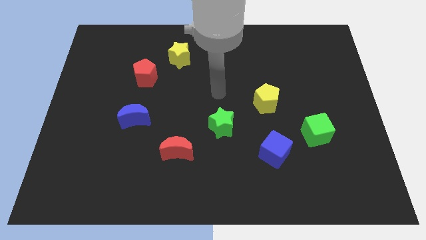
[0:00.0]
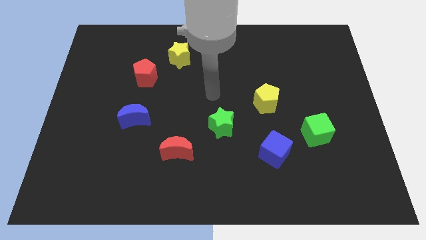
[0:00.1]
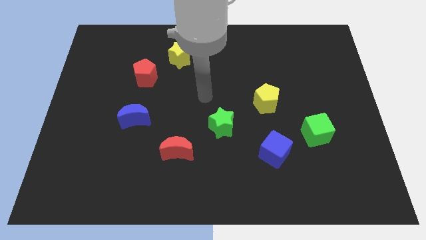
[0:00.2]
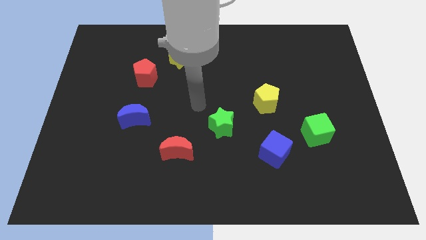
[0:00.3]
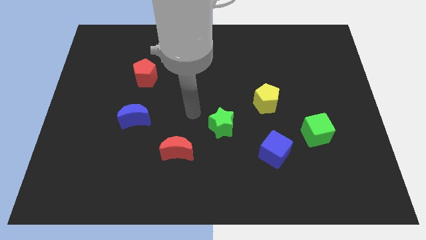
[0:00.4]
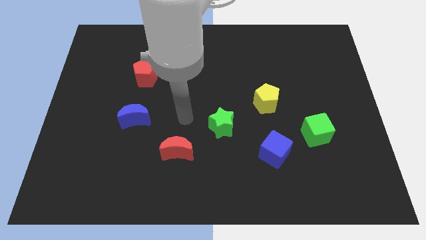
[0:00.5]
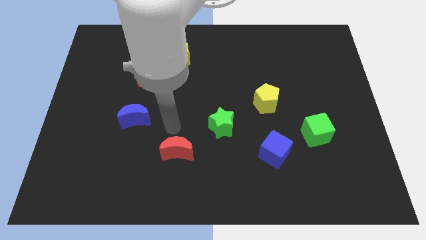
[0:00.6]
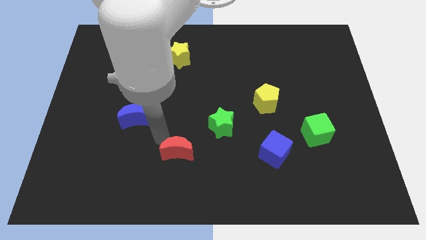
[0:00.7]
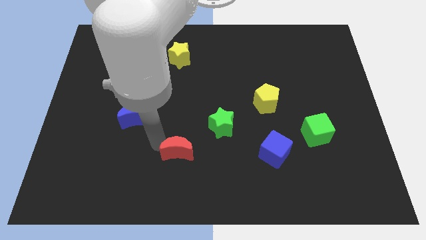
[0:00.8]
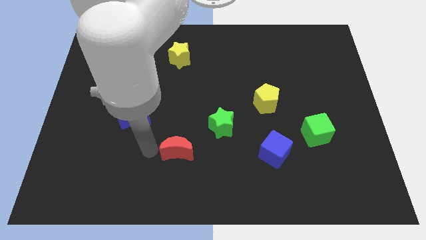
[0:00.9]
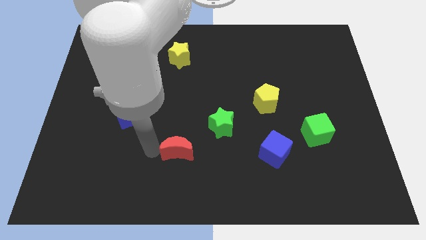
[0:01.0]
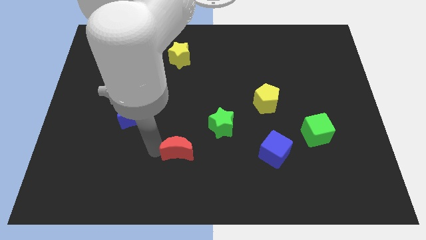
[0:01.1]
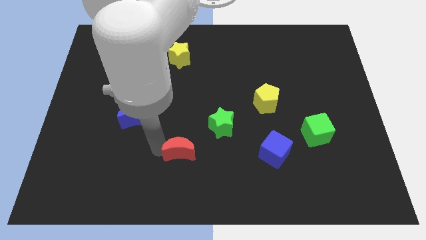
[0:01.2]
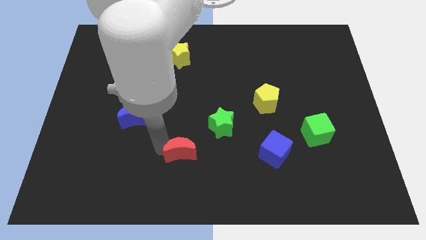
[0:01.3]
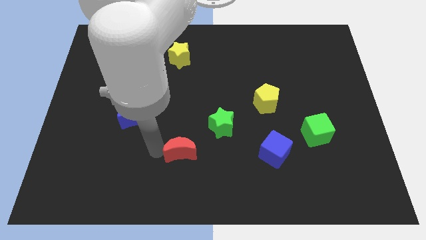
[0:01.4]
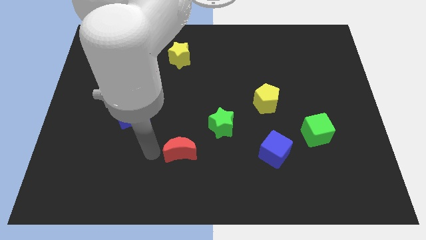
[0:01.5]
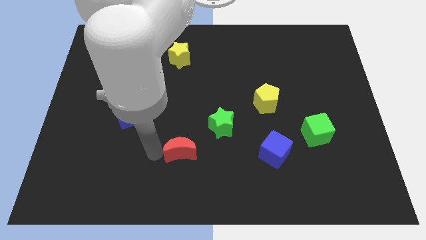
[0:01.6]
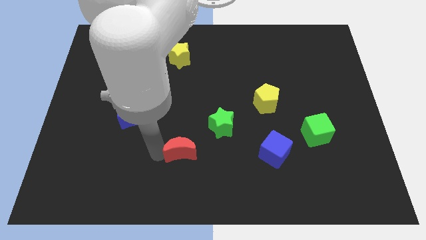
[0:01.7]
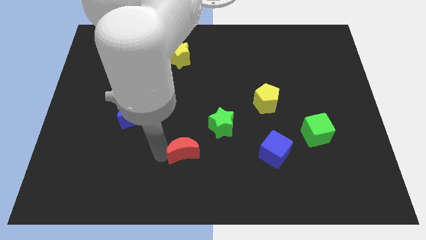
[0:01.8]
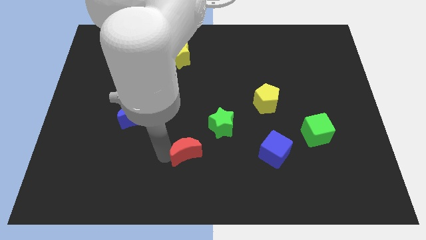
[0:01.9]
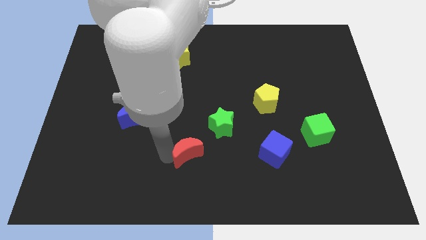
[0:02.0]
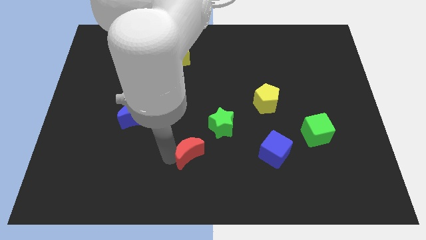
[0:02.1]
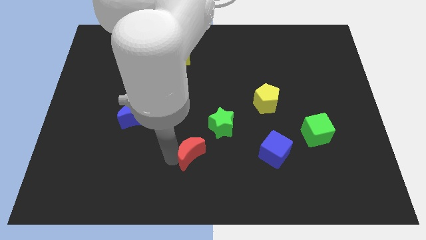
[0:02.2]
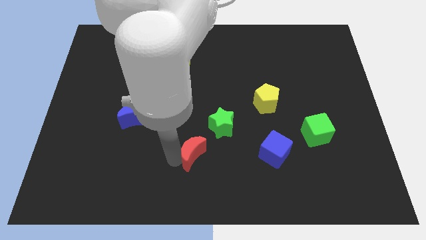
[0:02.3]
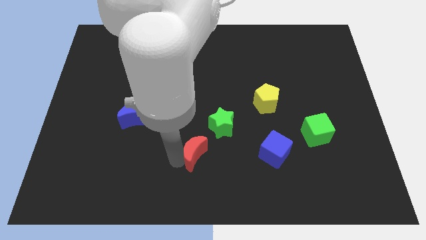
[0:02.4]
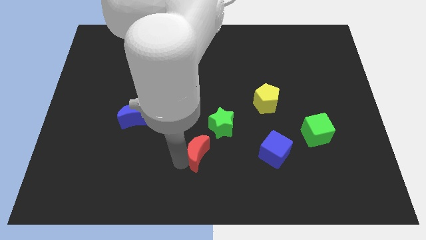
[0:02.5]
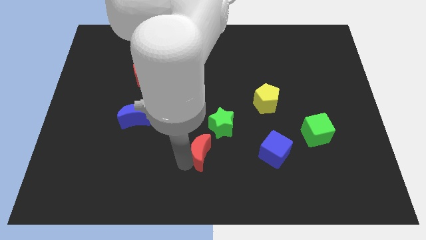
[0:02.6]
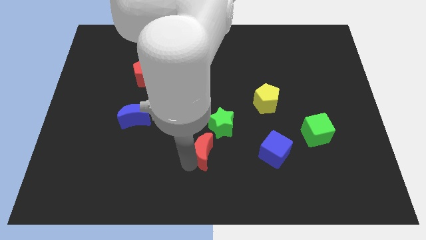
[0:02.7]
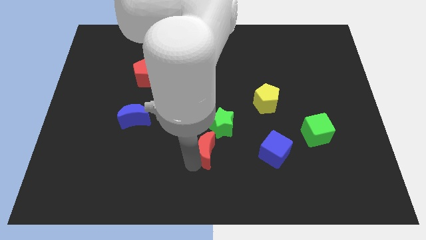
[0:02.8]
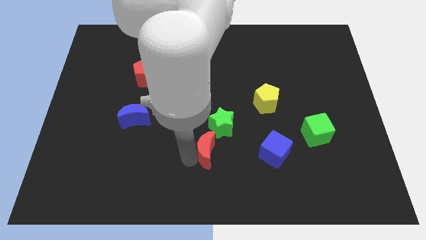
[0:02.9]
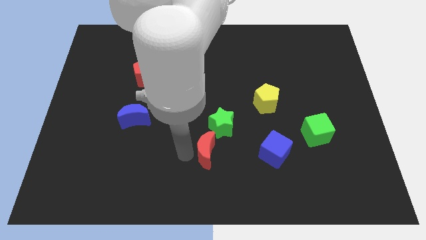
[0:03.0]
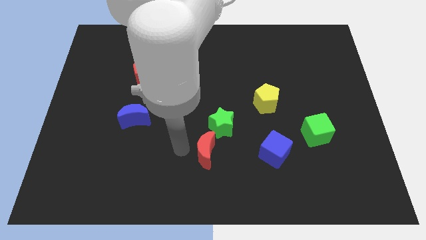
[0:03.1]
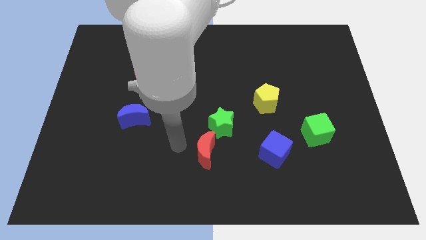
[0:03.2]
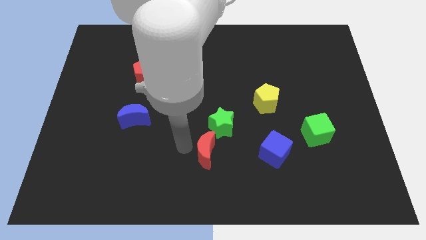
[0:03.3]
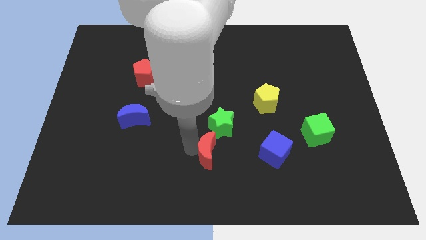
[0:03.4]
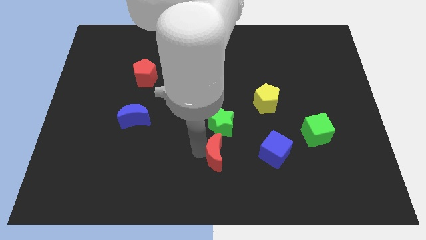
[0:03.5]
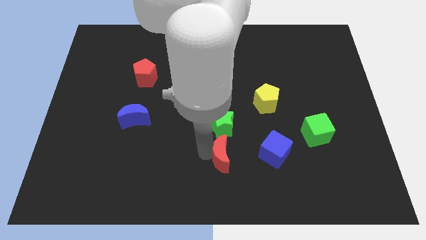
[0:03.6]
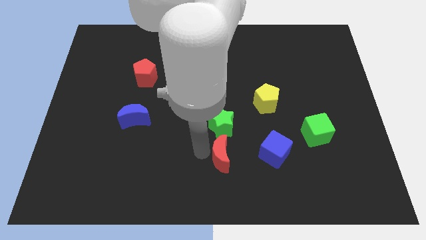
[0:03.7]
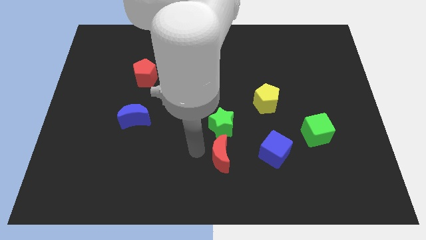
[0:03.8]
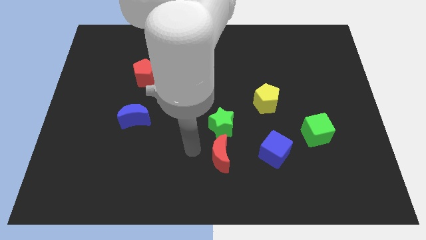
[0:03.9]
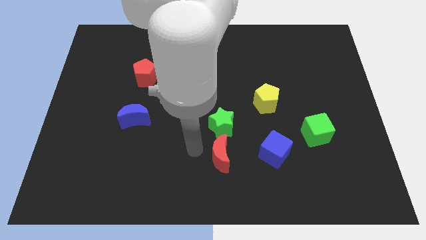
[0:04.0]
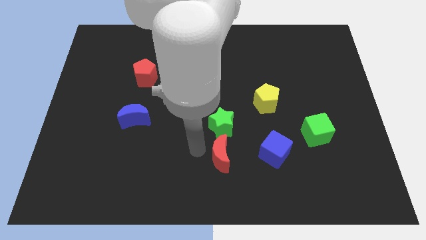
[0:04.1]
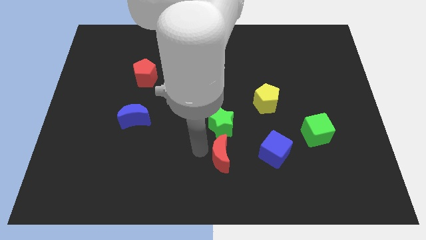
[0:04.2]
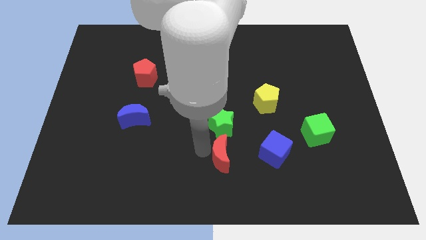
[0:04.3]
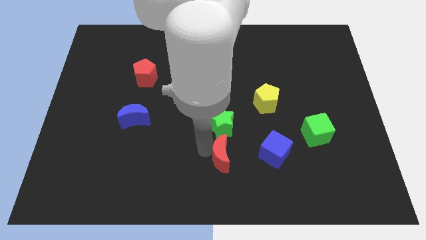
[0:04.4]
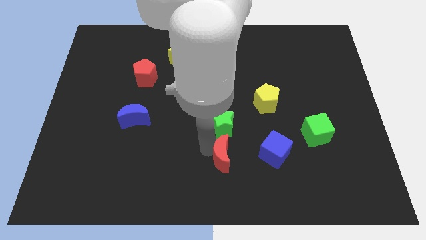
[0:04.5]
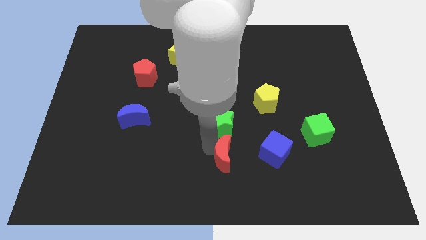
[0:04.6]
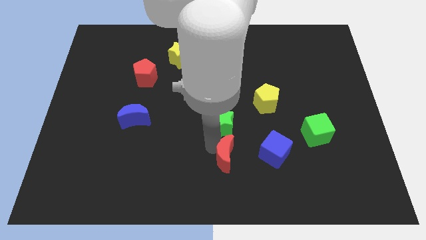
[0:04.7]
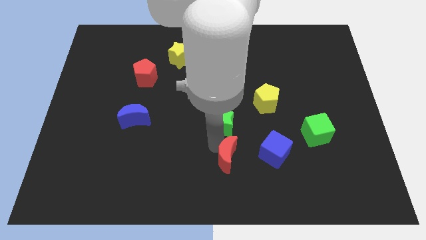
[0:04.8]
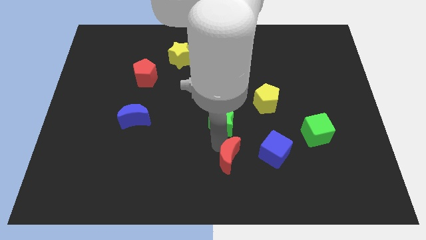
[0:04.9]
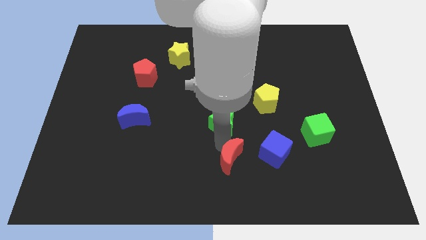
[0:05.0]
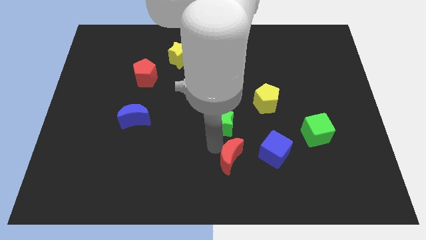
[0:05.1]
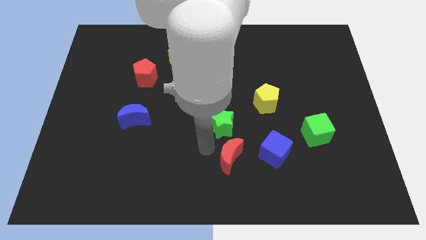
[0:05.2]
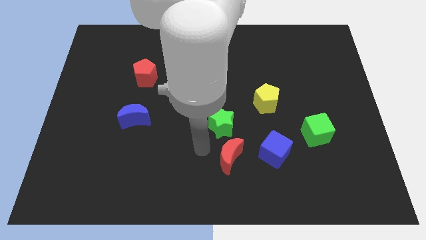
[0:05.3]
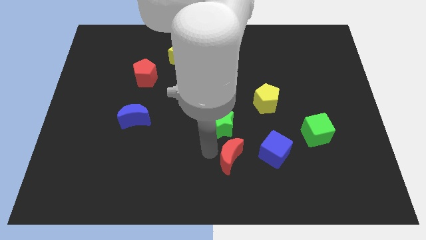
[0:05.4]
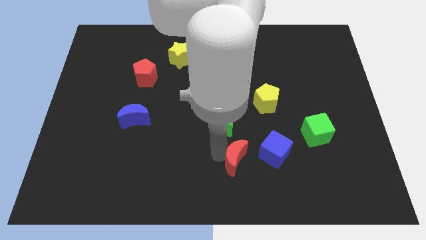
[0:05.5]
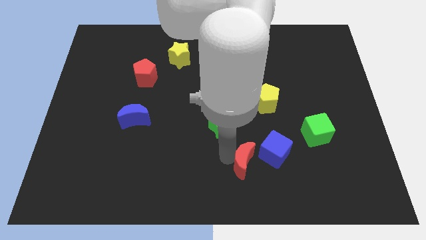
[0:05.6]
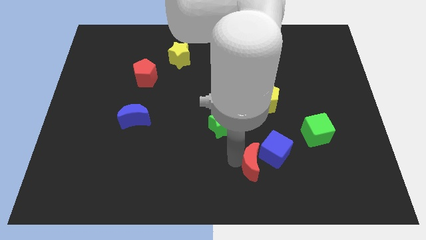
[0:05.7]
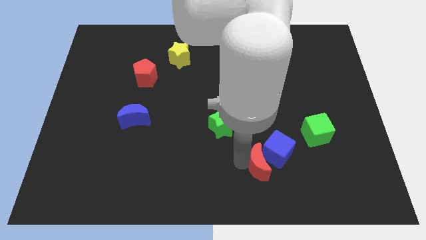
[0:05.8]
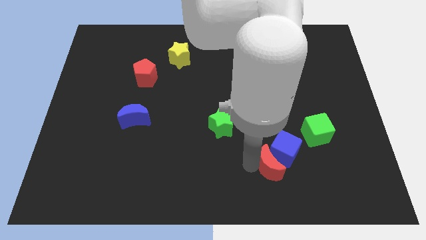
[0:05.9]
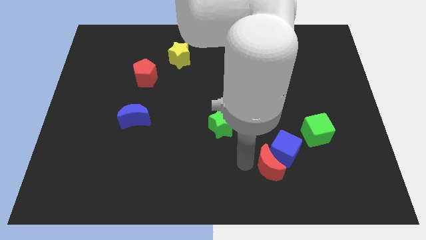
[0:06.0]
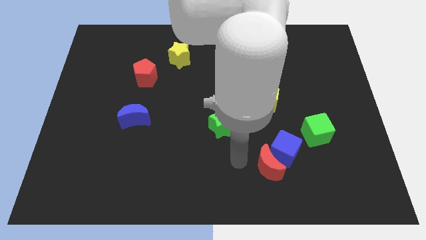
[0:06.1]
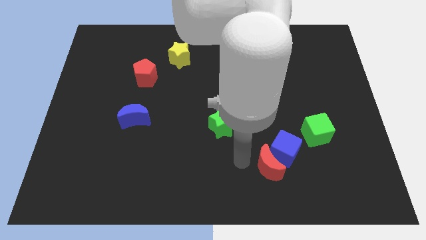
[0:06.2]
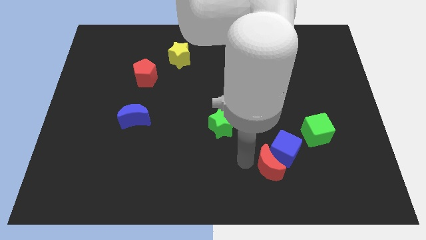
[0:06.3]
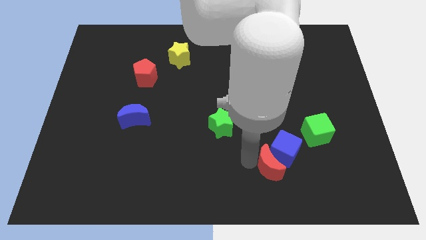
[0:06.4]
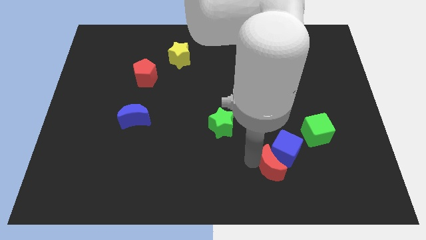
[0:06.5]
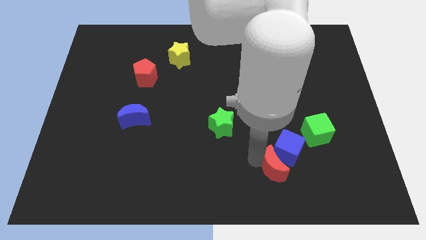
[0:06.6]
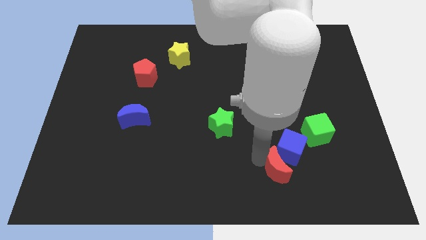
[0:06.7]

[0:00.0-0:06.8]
slide the red moon right

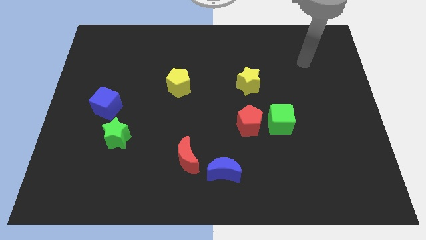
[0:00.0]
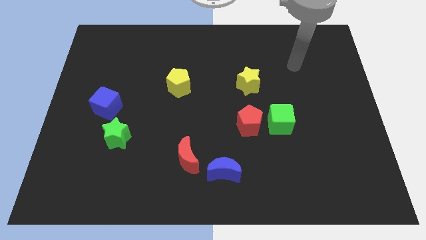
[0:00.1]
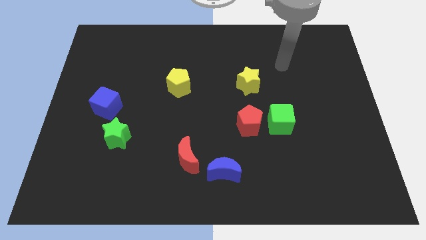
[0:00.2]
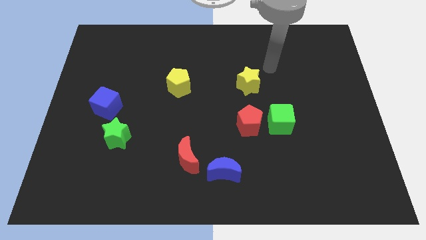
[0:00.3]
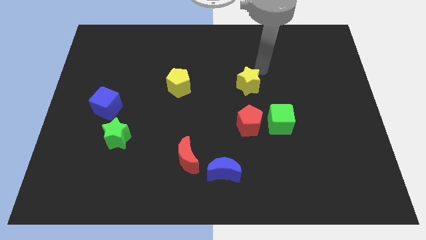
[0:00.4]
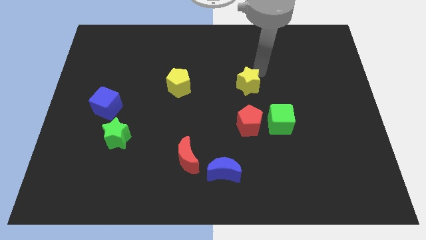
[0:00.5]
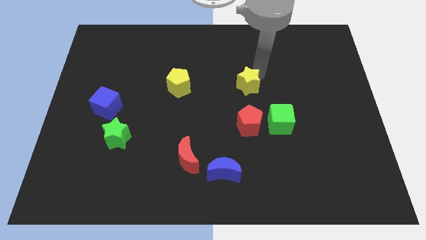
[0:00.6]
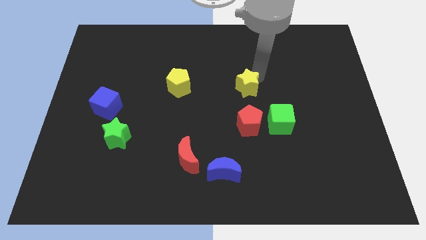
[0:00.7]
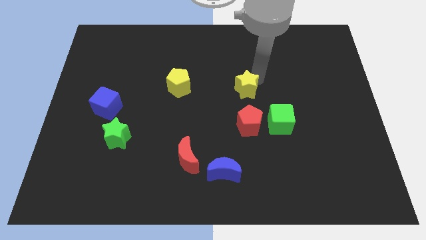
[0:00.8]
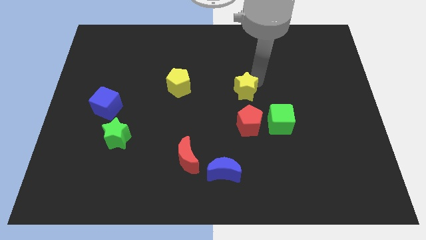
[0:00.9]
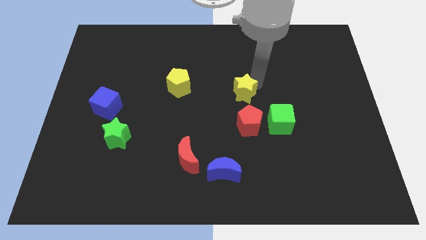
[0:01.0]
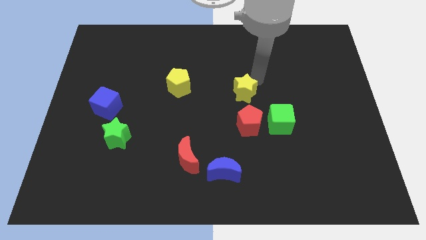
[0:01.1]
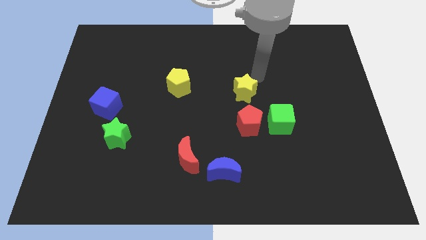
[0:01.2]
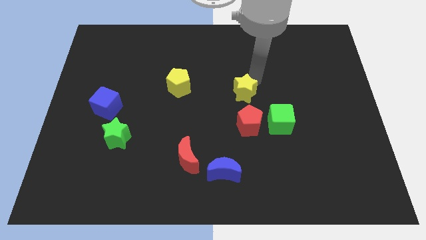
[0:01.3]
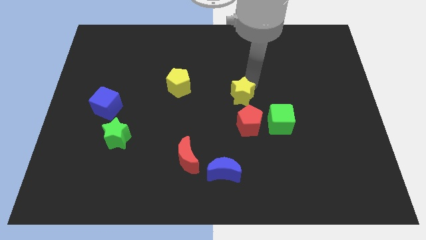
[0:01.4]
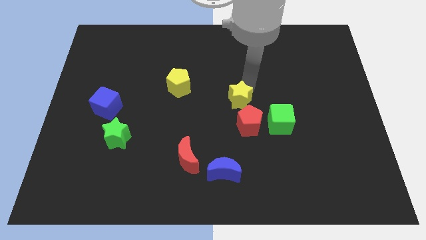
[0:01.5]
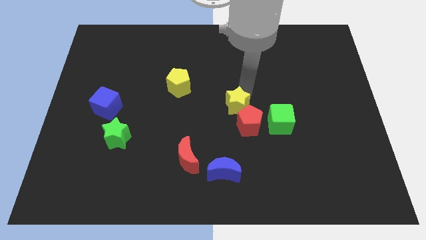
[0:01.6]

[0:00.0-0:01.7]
slightly slide the yellow star down and then to the left
